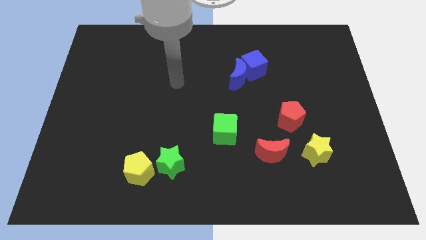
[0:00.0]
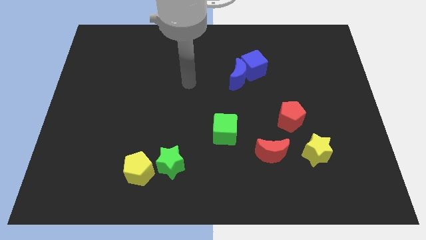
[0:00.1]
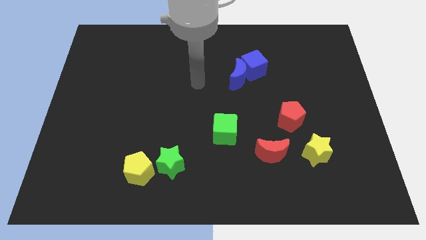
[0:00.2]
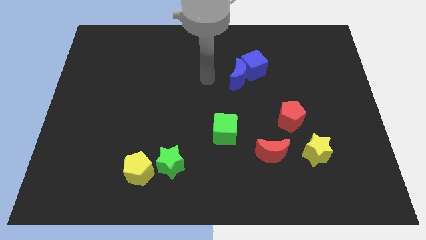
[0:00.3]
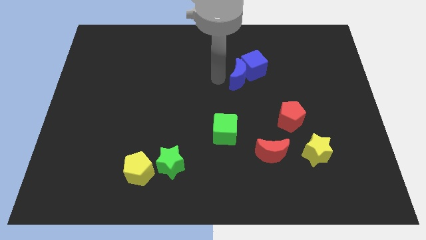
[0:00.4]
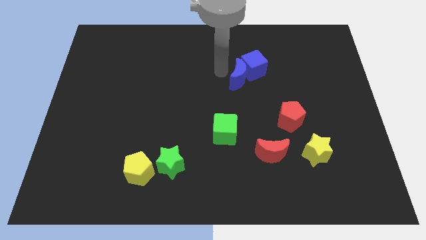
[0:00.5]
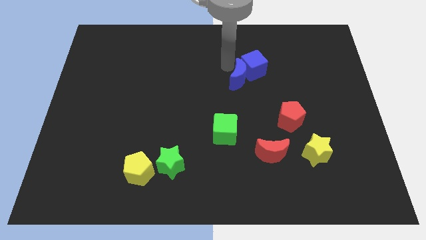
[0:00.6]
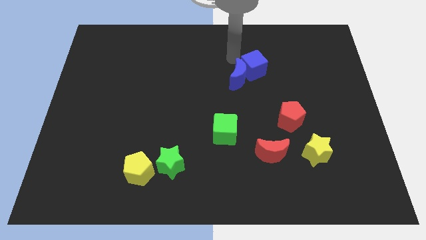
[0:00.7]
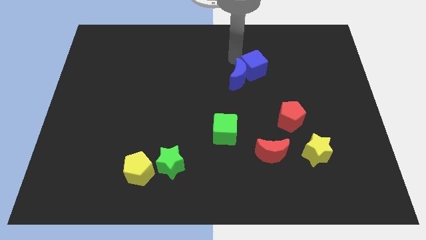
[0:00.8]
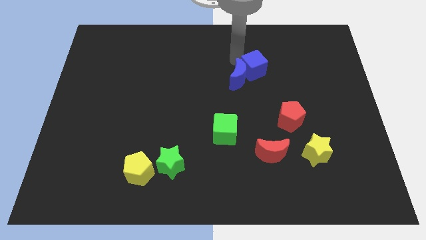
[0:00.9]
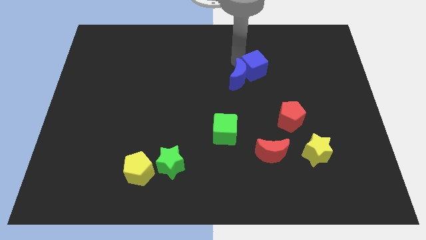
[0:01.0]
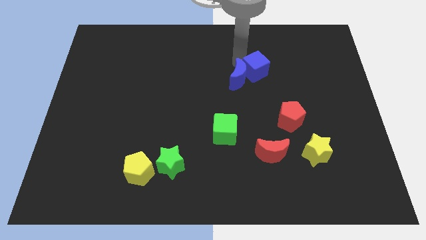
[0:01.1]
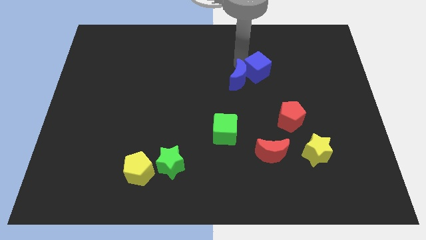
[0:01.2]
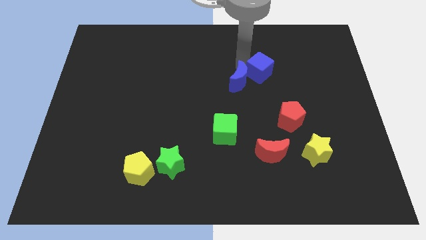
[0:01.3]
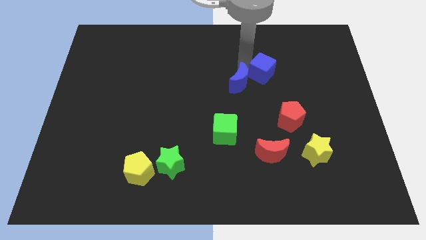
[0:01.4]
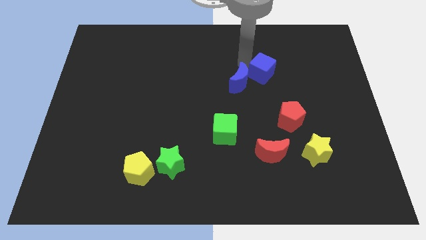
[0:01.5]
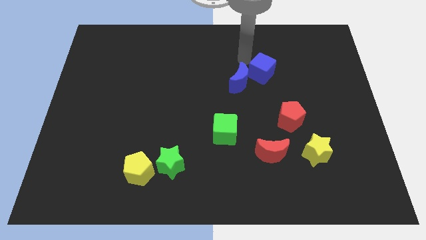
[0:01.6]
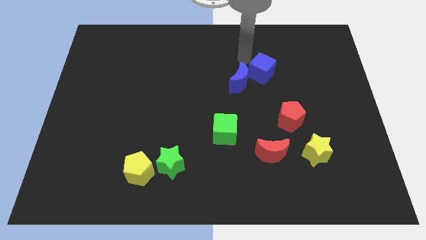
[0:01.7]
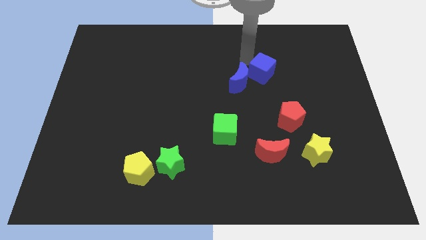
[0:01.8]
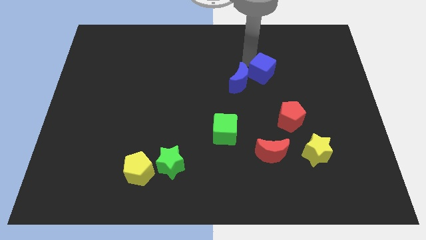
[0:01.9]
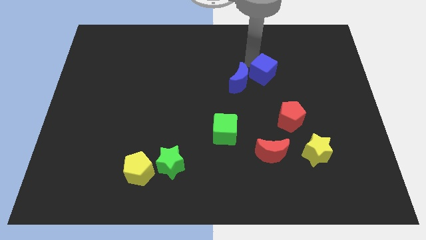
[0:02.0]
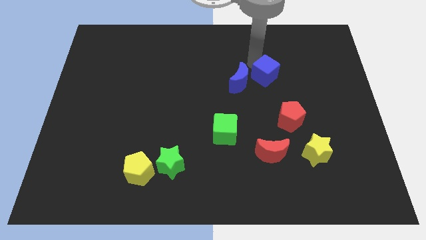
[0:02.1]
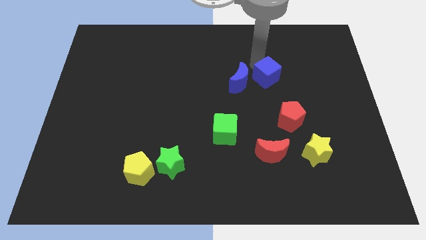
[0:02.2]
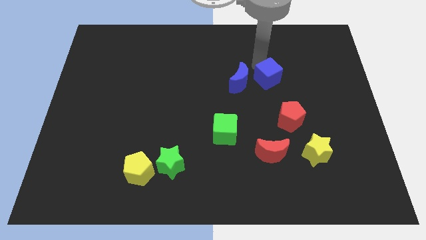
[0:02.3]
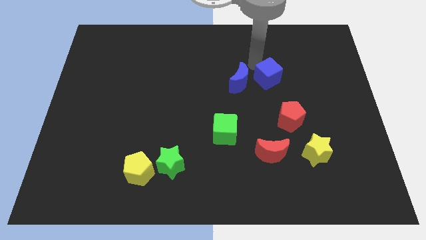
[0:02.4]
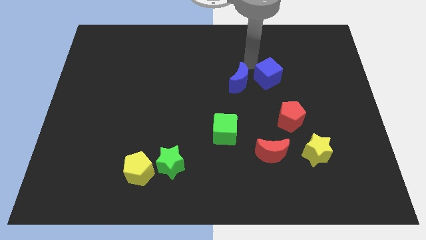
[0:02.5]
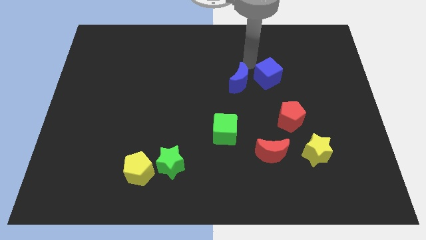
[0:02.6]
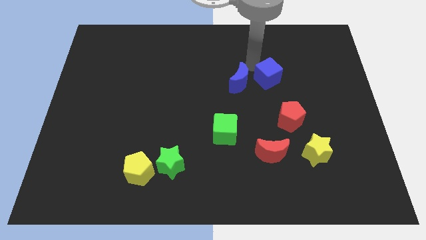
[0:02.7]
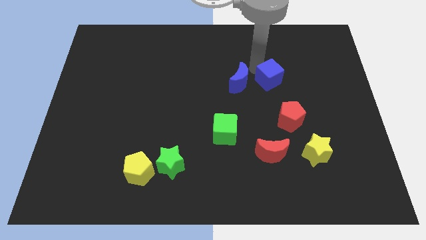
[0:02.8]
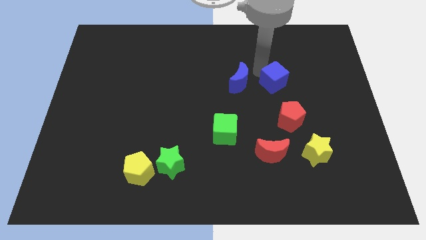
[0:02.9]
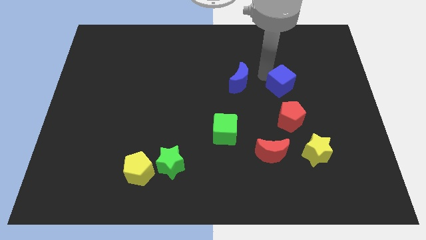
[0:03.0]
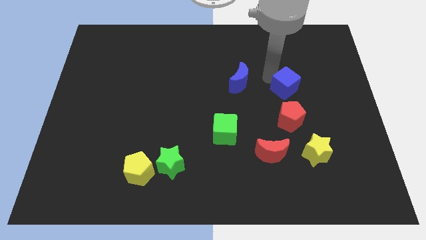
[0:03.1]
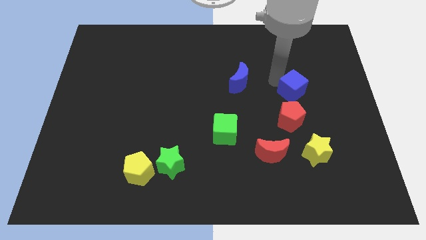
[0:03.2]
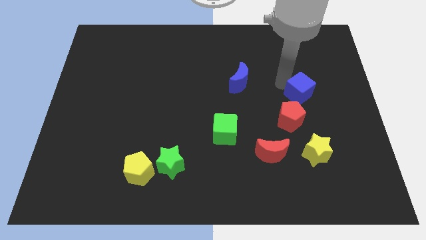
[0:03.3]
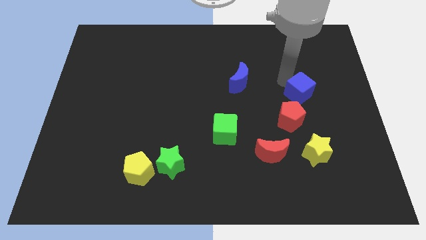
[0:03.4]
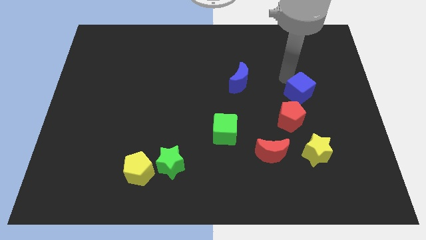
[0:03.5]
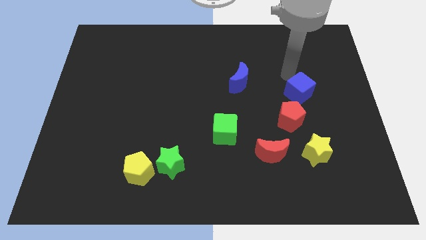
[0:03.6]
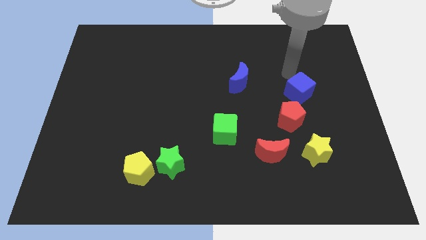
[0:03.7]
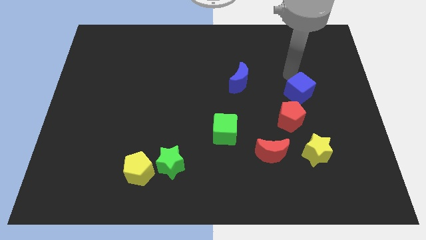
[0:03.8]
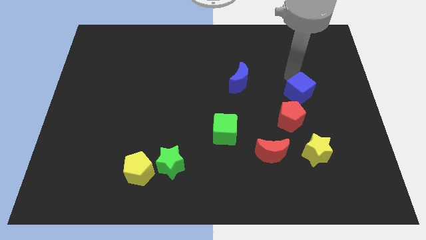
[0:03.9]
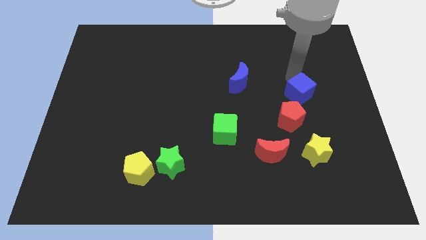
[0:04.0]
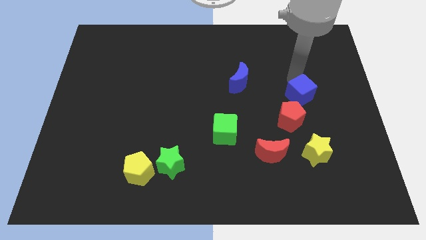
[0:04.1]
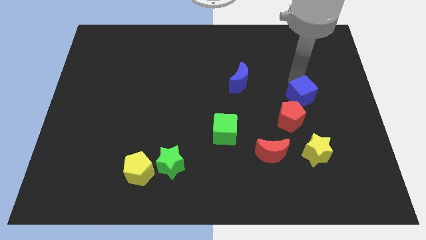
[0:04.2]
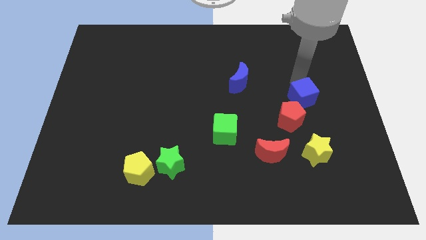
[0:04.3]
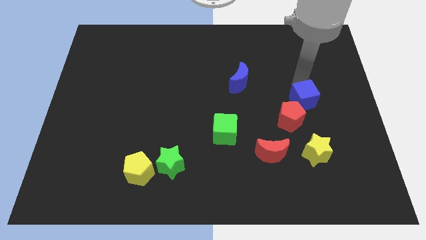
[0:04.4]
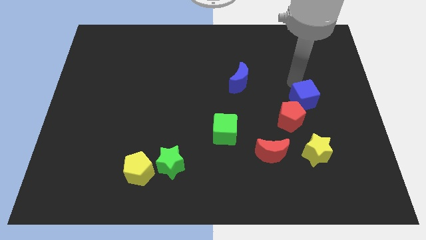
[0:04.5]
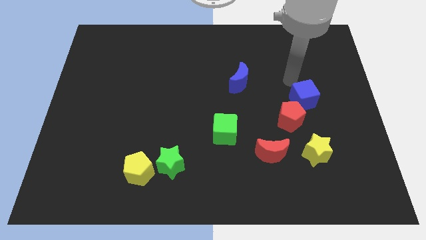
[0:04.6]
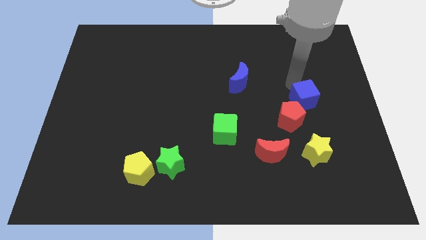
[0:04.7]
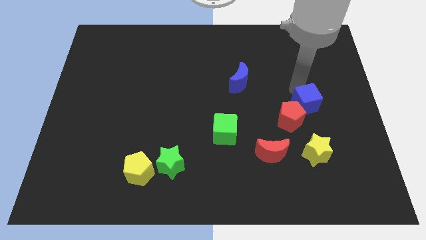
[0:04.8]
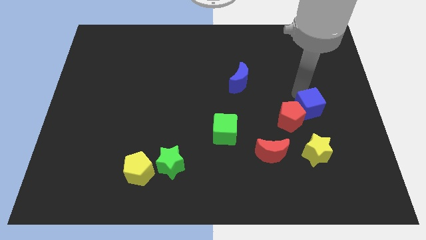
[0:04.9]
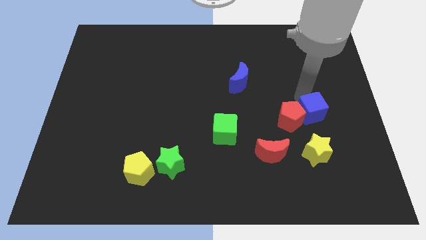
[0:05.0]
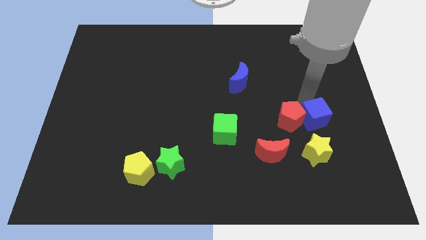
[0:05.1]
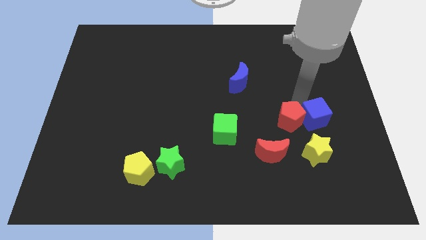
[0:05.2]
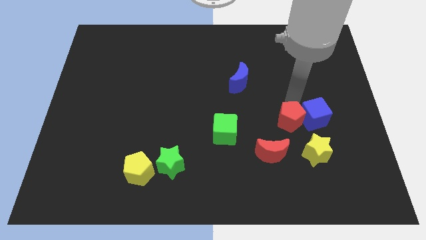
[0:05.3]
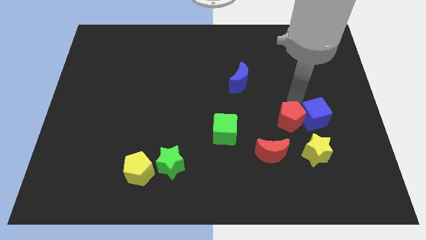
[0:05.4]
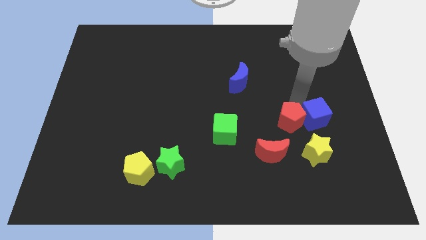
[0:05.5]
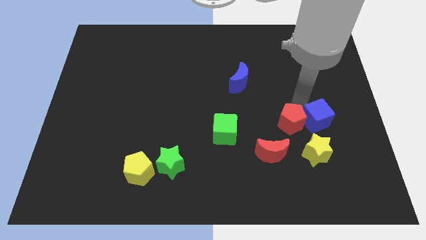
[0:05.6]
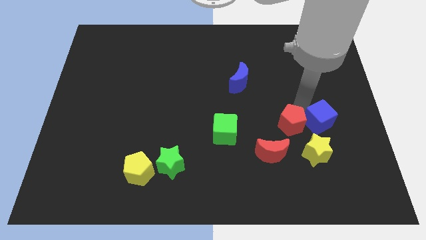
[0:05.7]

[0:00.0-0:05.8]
move the blue cube to the top right side of the yellow star
